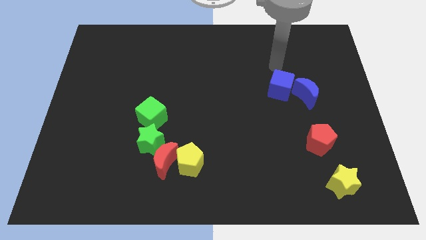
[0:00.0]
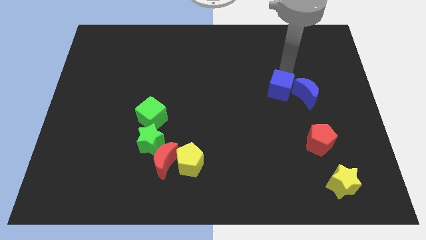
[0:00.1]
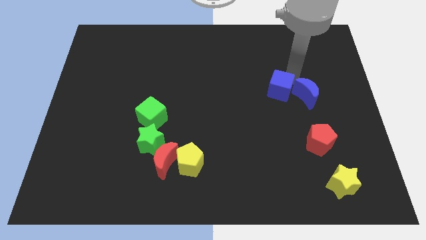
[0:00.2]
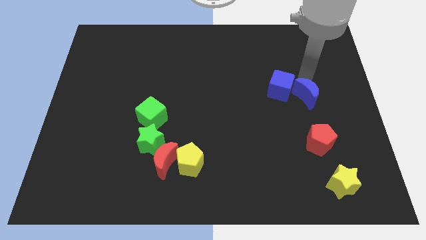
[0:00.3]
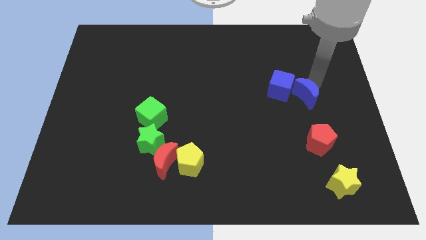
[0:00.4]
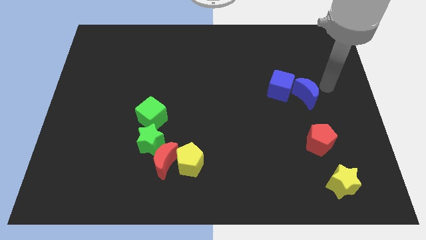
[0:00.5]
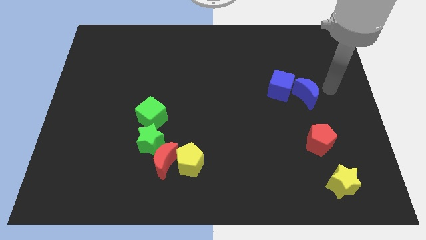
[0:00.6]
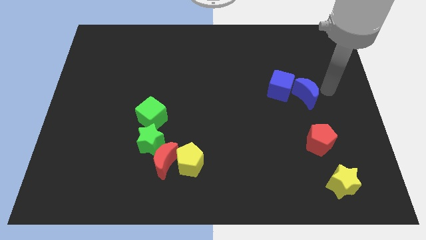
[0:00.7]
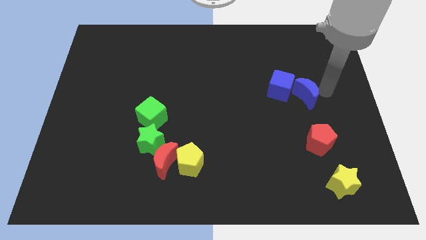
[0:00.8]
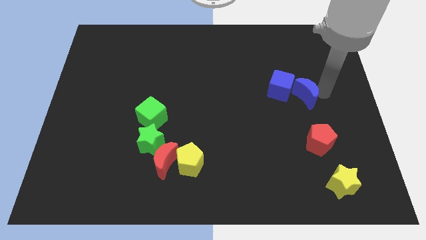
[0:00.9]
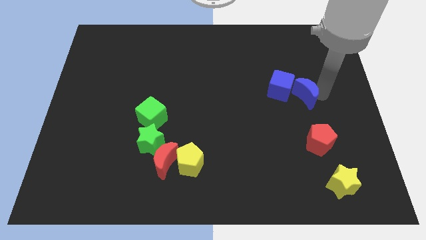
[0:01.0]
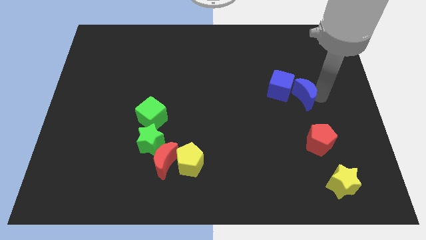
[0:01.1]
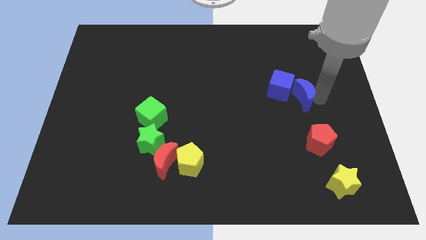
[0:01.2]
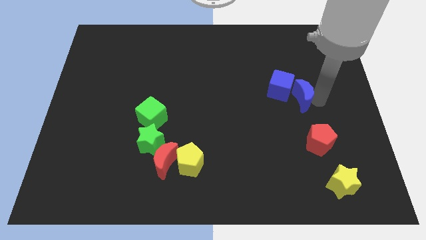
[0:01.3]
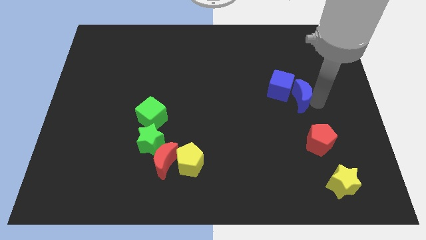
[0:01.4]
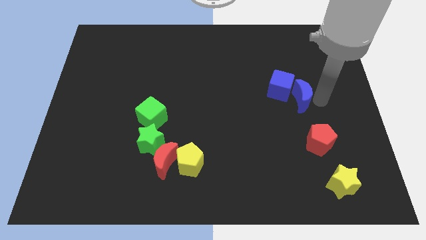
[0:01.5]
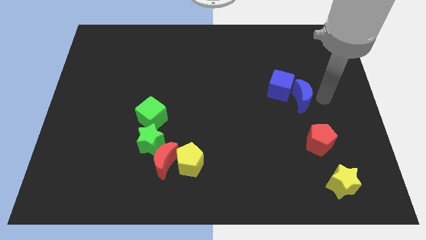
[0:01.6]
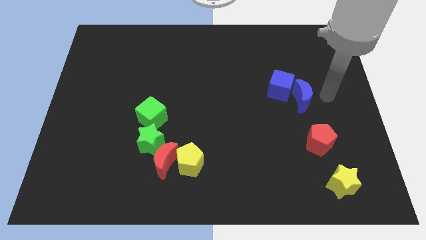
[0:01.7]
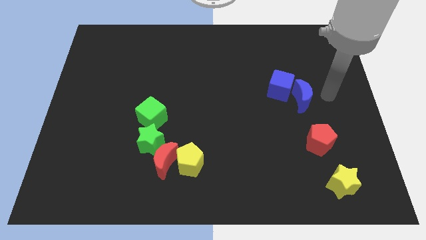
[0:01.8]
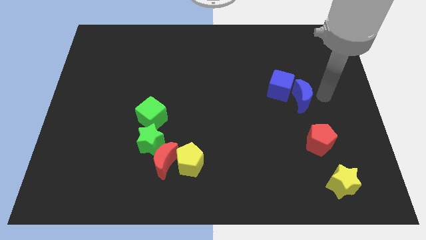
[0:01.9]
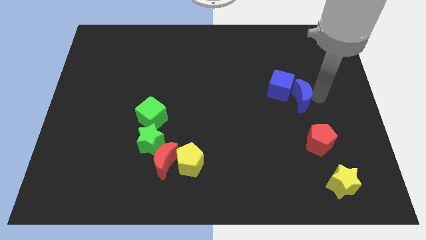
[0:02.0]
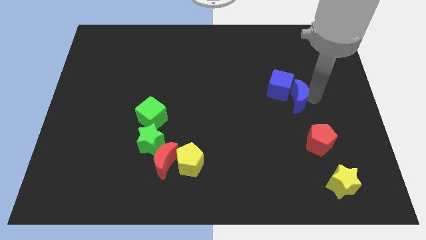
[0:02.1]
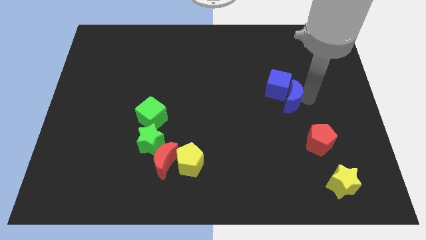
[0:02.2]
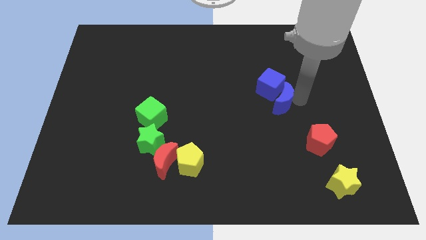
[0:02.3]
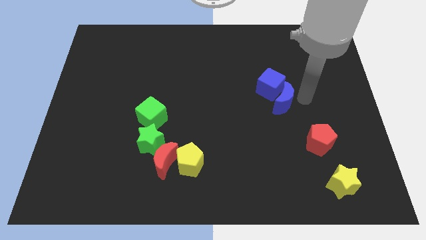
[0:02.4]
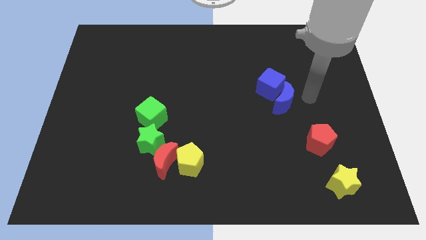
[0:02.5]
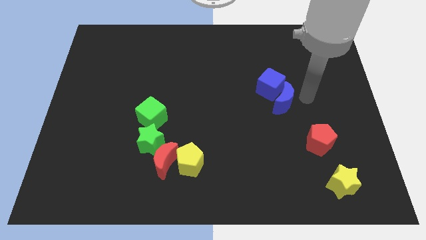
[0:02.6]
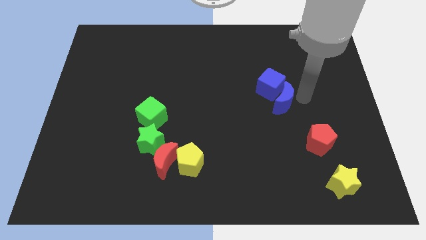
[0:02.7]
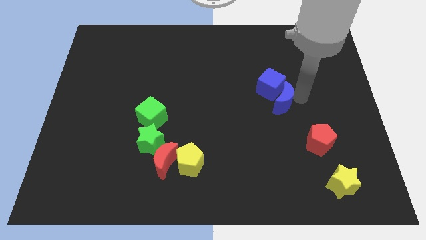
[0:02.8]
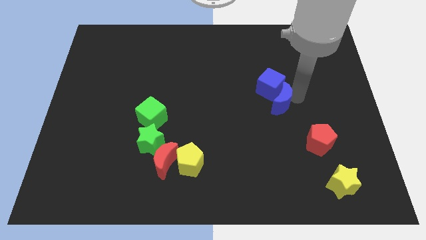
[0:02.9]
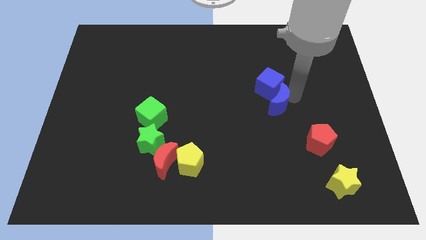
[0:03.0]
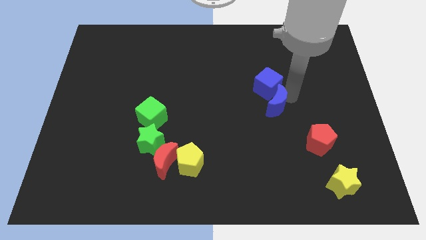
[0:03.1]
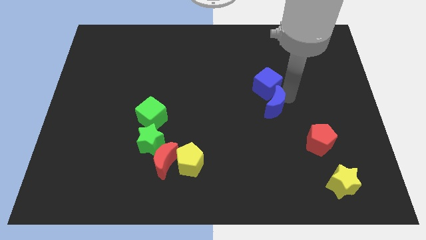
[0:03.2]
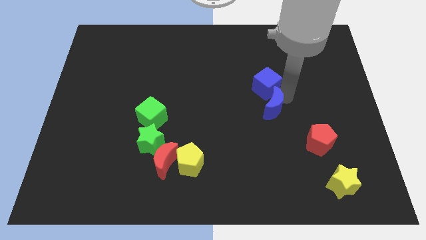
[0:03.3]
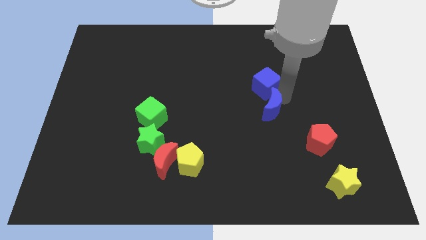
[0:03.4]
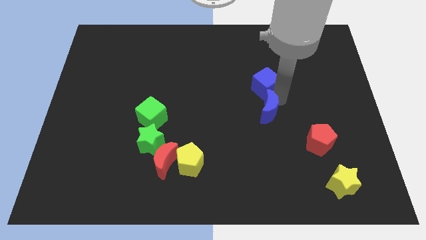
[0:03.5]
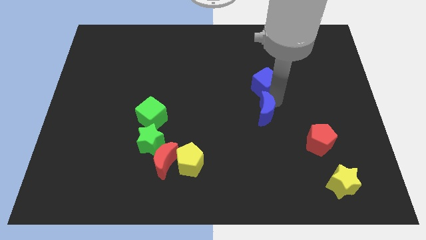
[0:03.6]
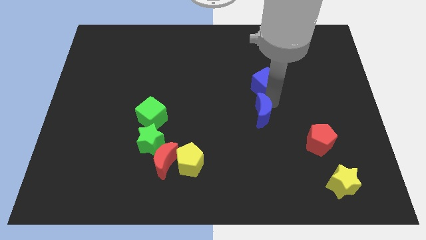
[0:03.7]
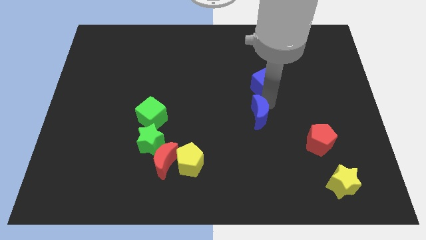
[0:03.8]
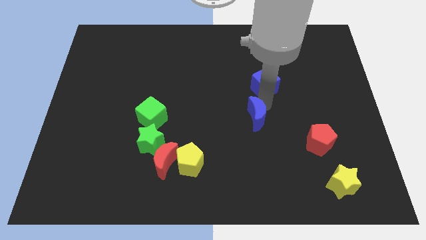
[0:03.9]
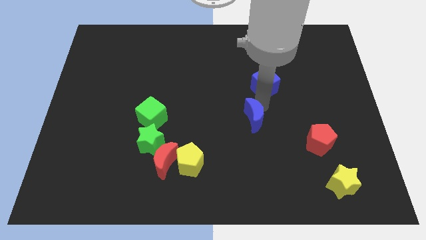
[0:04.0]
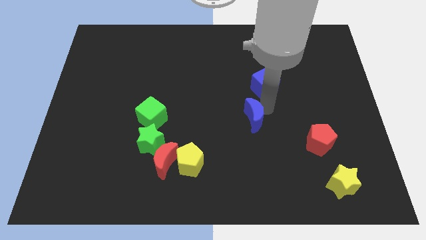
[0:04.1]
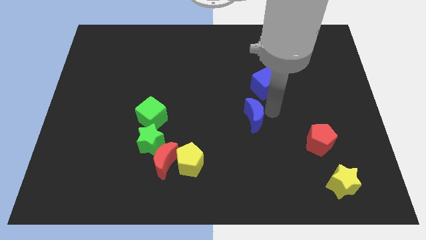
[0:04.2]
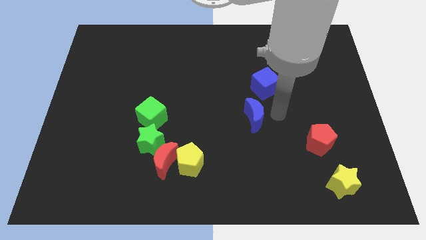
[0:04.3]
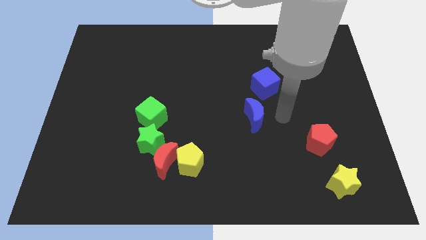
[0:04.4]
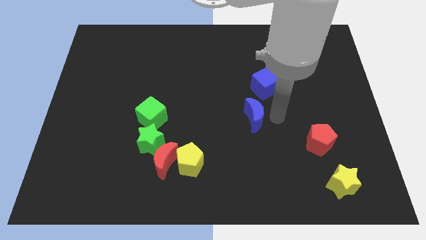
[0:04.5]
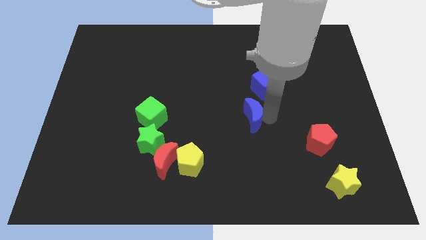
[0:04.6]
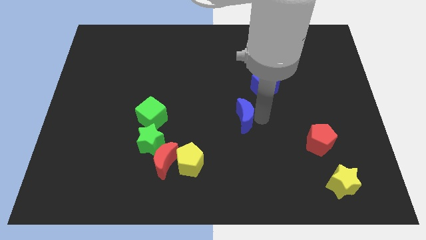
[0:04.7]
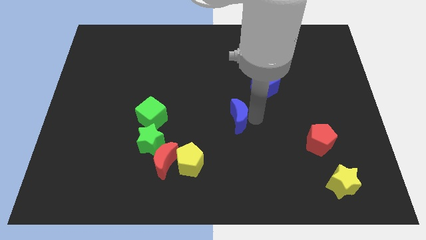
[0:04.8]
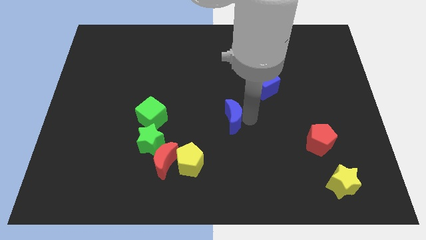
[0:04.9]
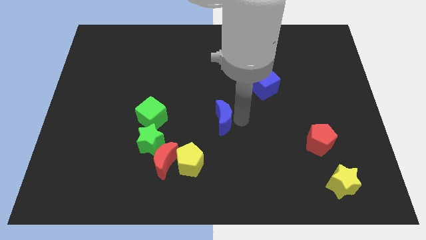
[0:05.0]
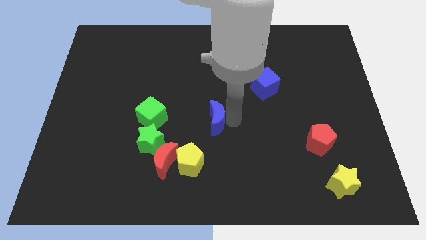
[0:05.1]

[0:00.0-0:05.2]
move the blue moon to the right of the green cube

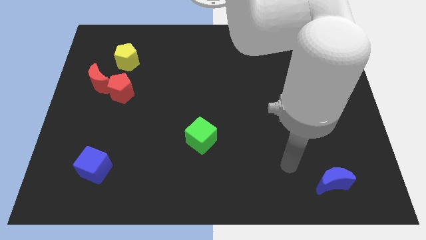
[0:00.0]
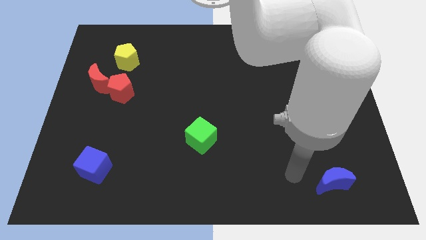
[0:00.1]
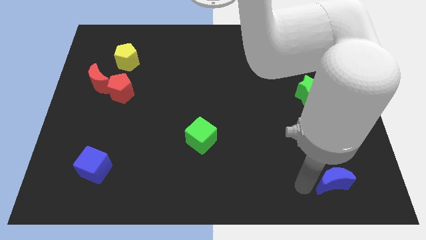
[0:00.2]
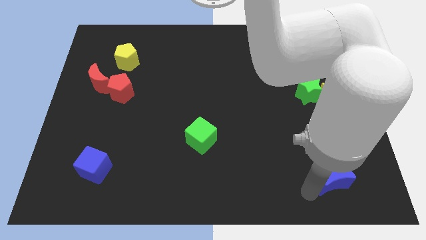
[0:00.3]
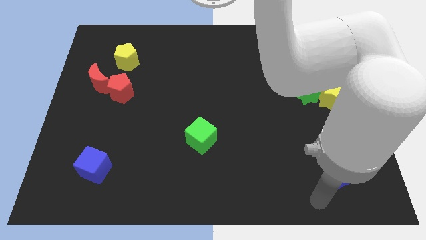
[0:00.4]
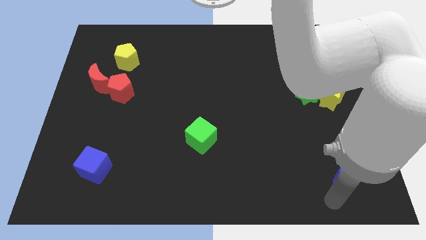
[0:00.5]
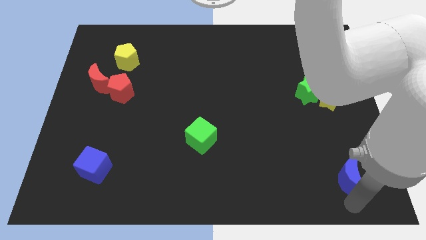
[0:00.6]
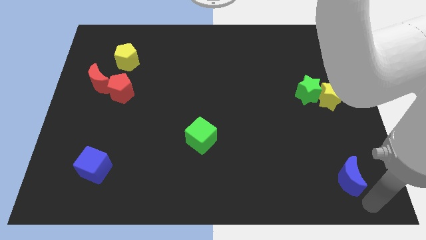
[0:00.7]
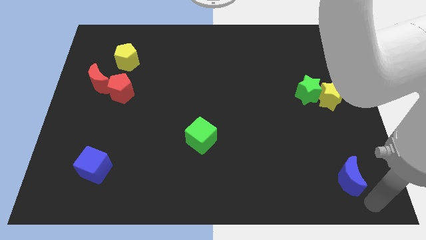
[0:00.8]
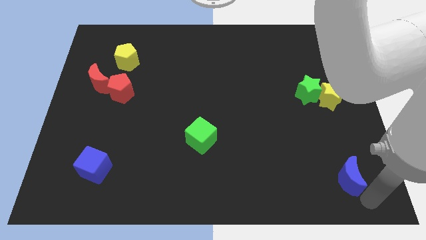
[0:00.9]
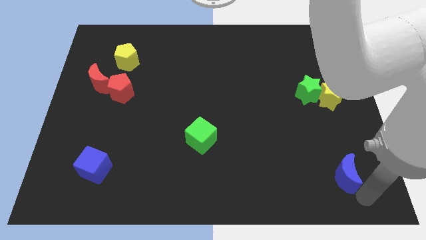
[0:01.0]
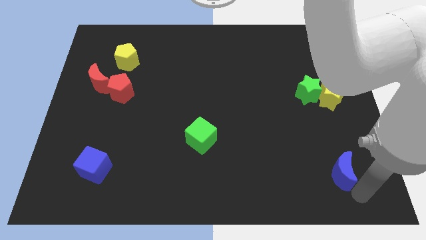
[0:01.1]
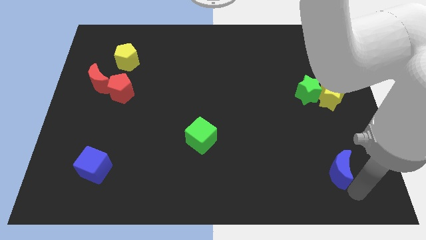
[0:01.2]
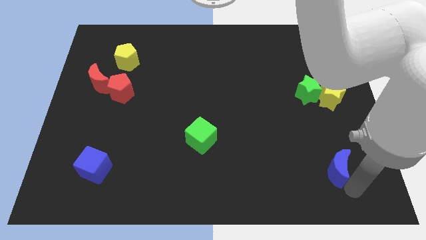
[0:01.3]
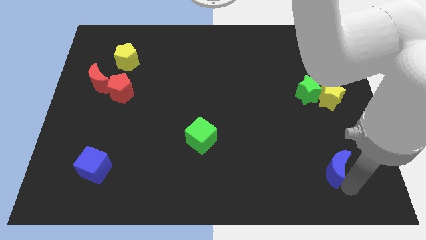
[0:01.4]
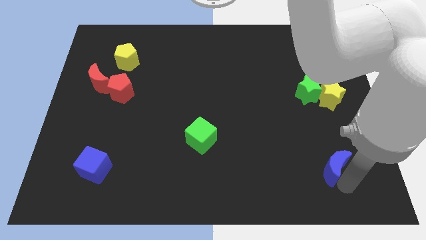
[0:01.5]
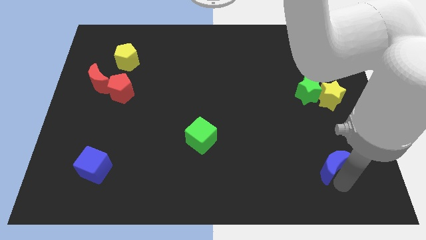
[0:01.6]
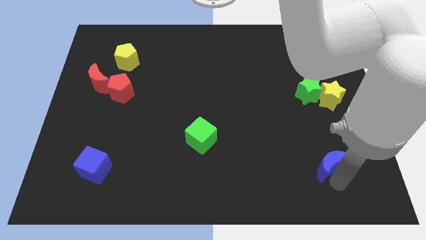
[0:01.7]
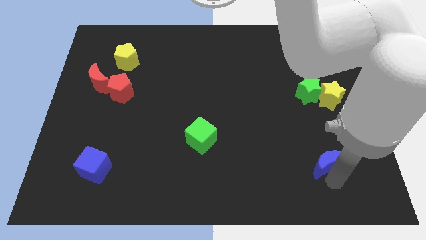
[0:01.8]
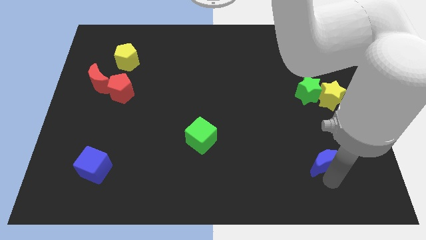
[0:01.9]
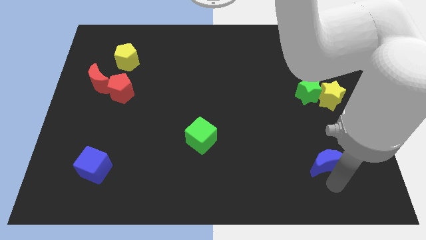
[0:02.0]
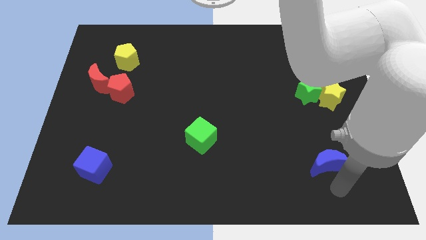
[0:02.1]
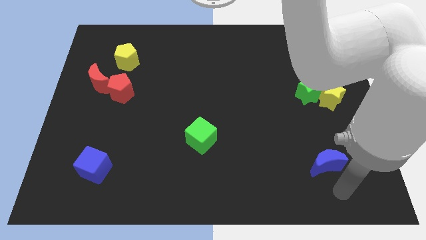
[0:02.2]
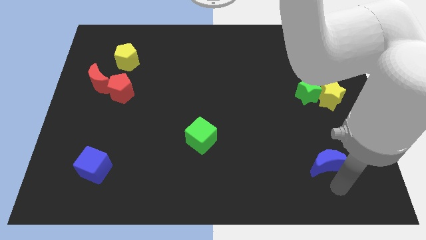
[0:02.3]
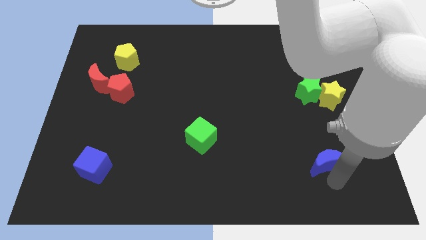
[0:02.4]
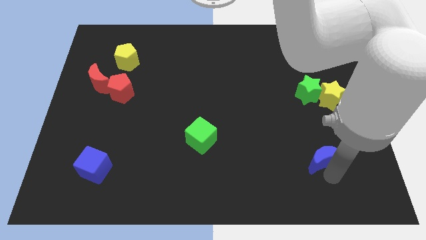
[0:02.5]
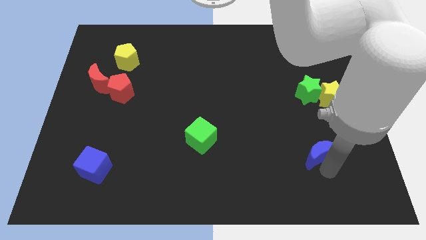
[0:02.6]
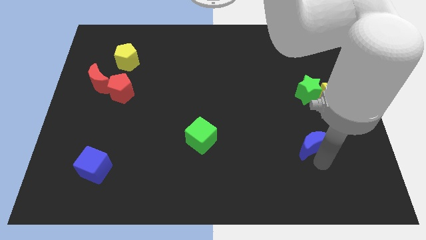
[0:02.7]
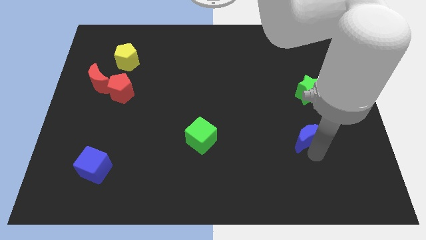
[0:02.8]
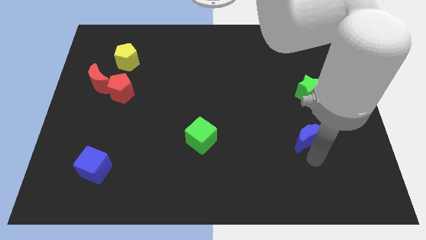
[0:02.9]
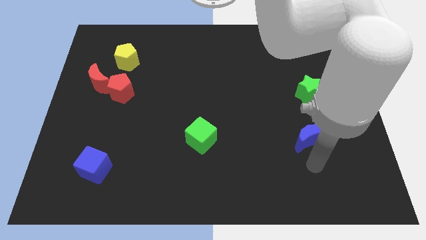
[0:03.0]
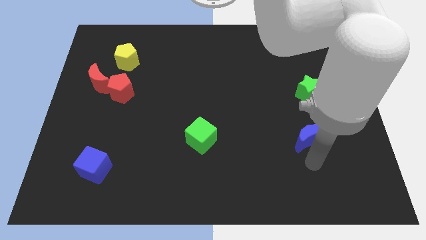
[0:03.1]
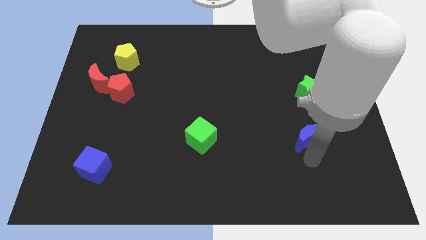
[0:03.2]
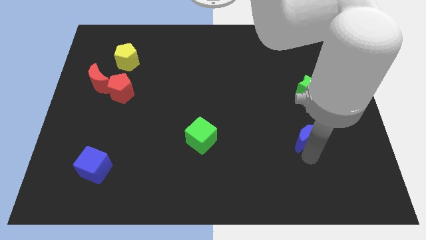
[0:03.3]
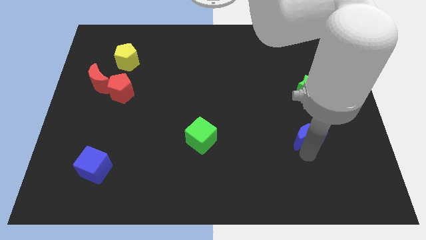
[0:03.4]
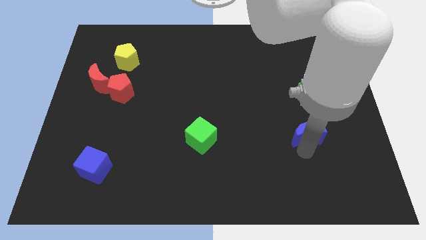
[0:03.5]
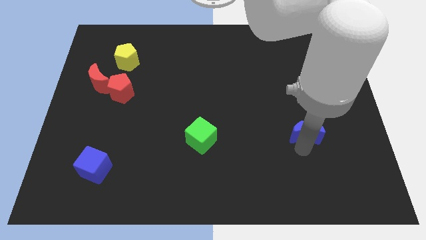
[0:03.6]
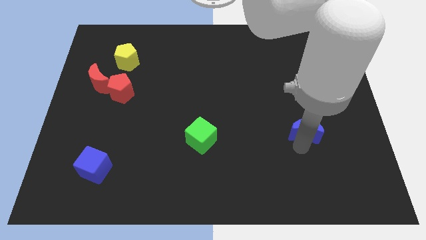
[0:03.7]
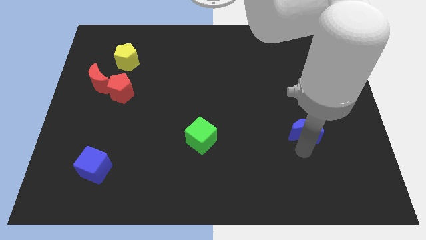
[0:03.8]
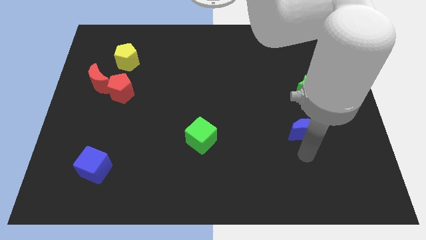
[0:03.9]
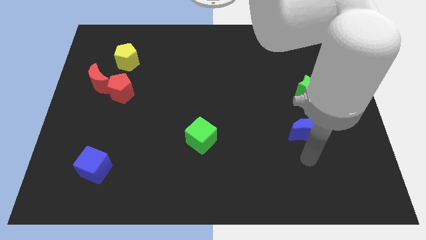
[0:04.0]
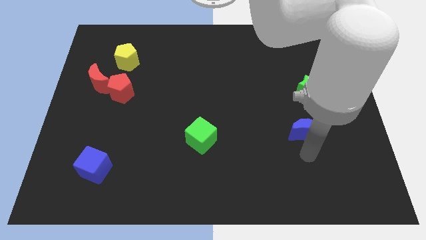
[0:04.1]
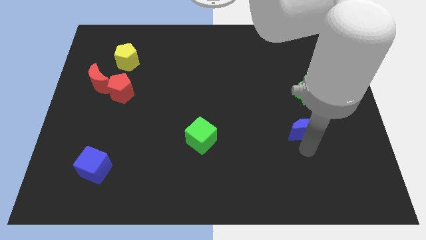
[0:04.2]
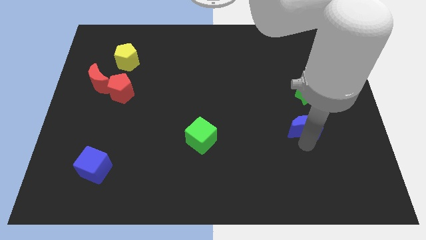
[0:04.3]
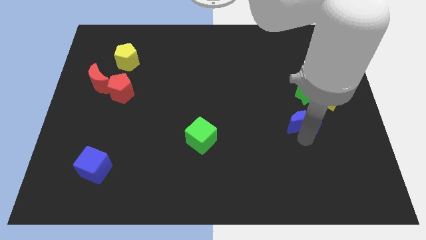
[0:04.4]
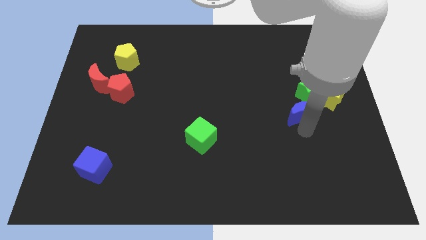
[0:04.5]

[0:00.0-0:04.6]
move the blue moon left of the yellow star
